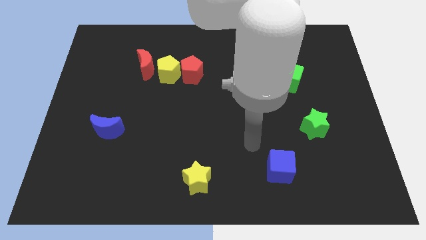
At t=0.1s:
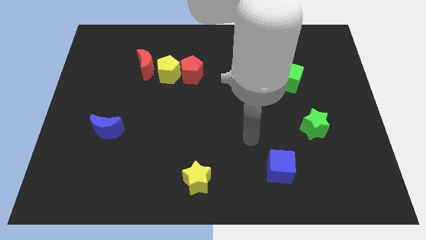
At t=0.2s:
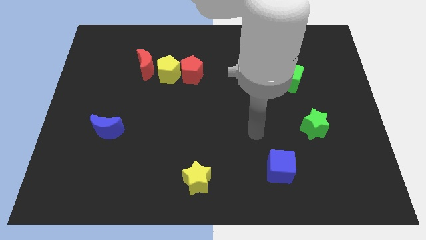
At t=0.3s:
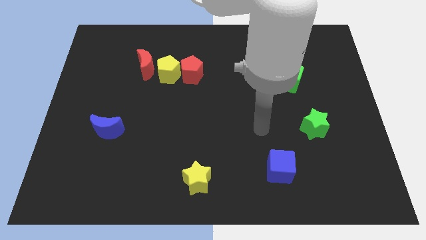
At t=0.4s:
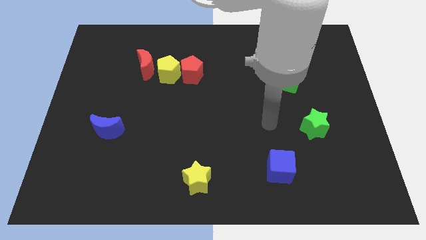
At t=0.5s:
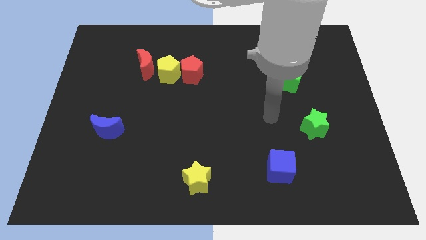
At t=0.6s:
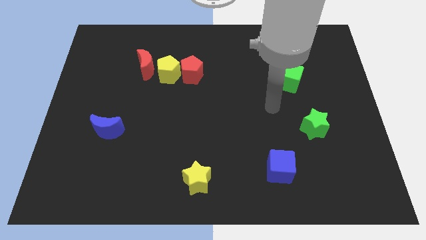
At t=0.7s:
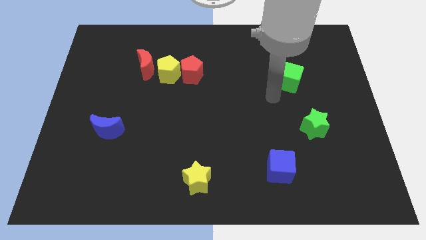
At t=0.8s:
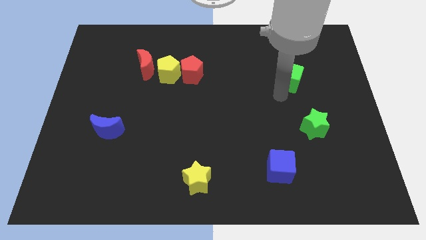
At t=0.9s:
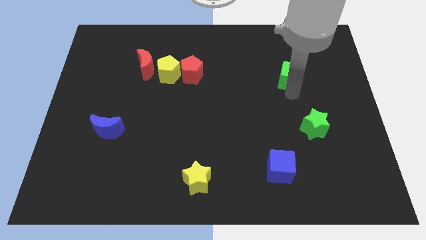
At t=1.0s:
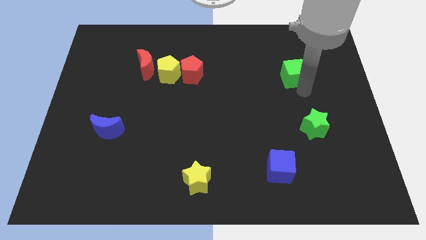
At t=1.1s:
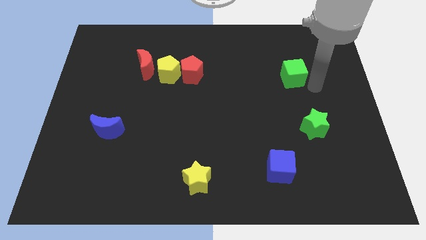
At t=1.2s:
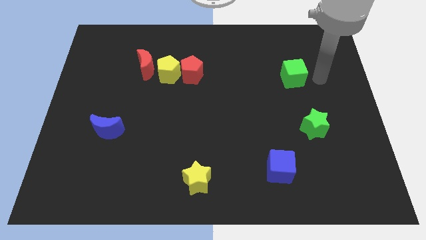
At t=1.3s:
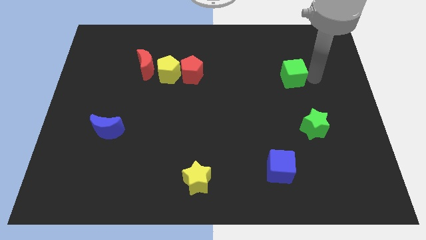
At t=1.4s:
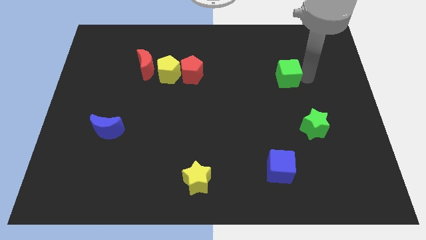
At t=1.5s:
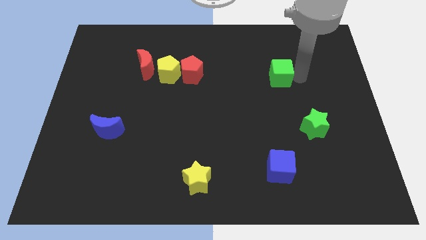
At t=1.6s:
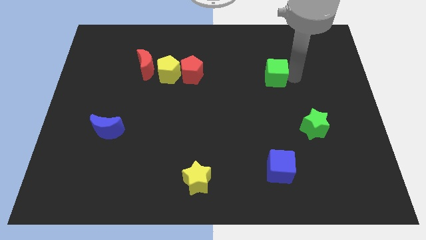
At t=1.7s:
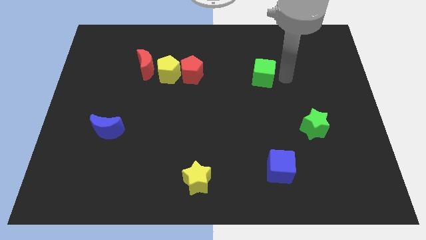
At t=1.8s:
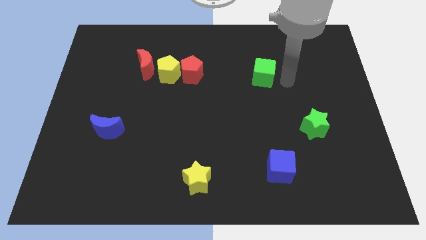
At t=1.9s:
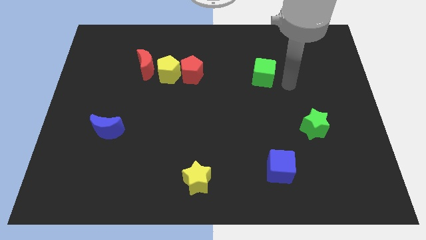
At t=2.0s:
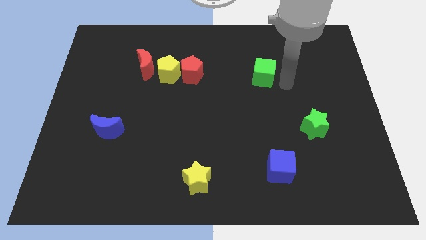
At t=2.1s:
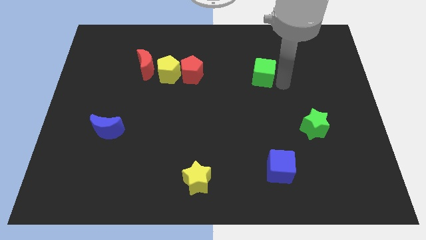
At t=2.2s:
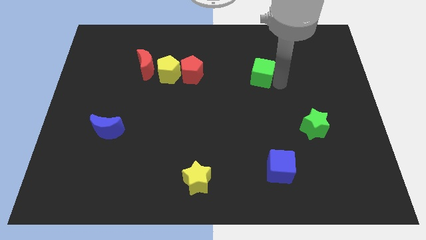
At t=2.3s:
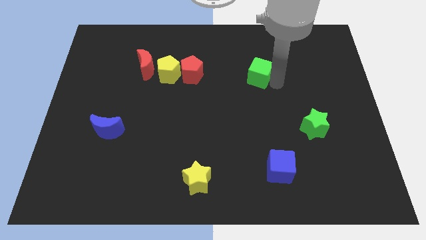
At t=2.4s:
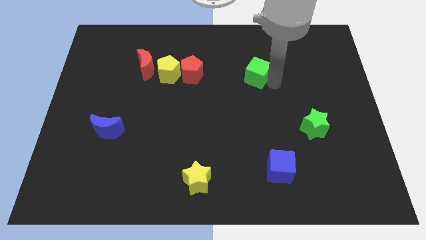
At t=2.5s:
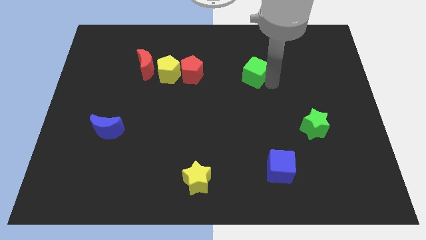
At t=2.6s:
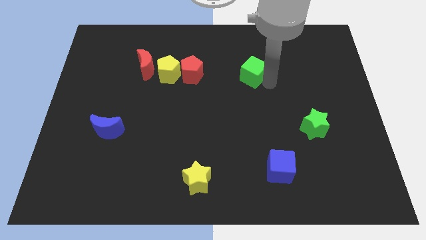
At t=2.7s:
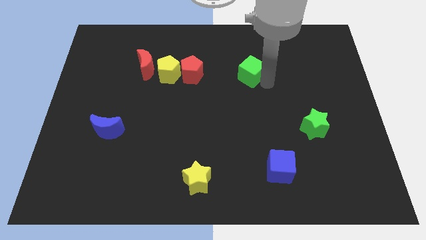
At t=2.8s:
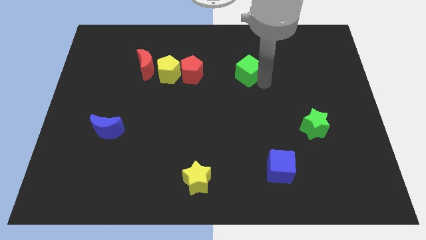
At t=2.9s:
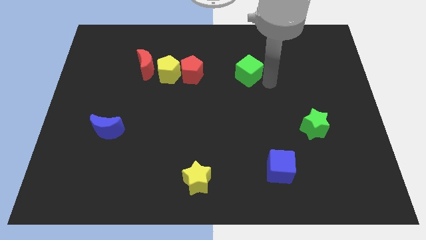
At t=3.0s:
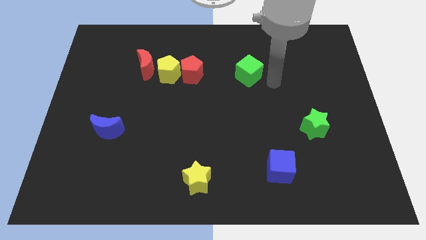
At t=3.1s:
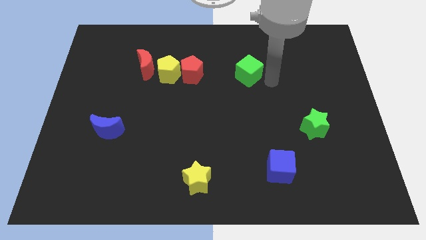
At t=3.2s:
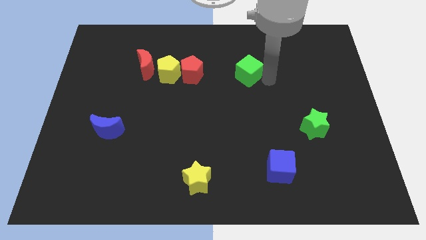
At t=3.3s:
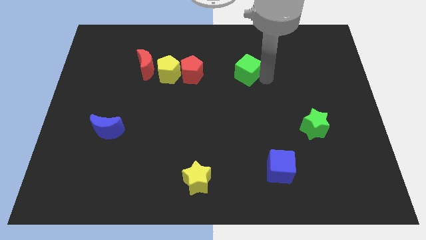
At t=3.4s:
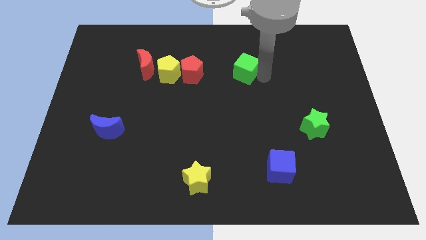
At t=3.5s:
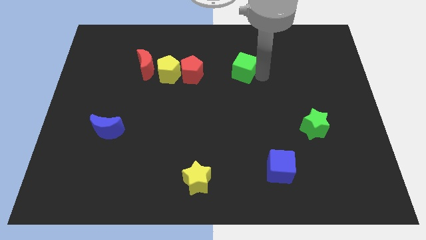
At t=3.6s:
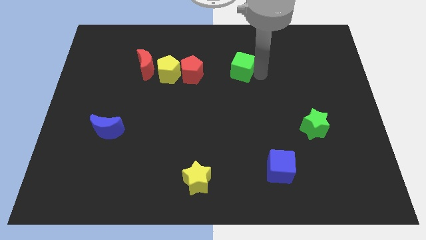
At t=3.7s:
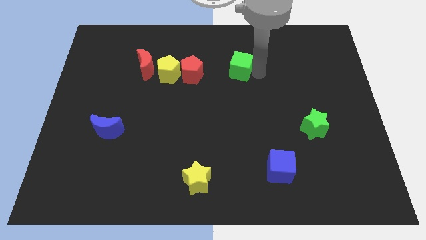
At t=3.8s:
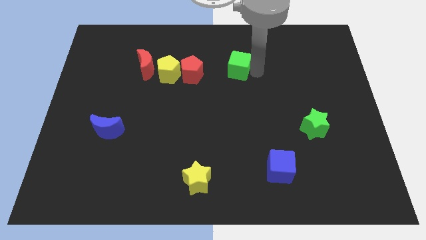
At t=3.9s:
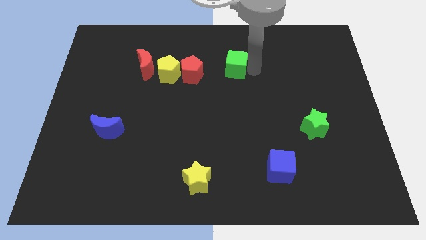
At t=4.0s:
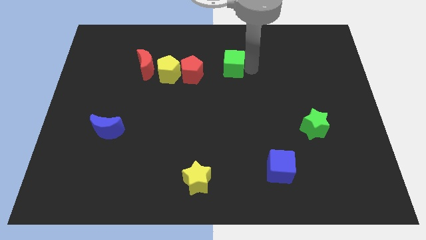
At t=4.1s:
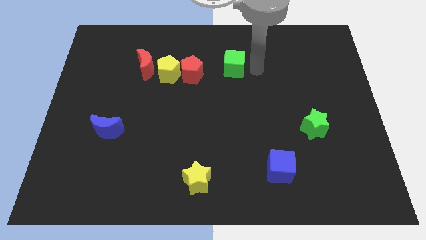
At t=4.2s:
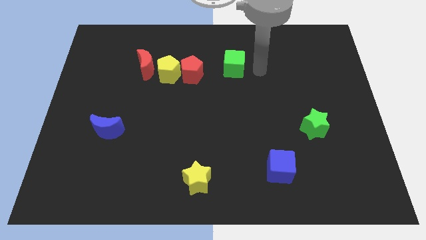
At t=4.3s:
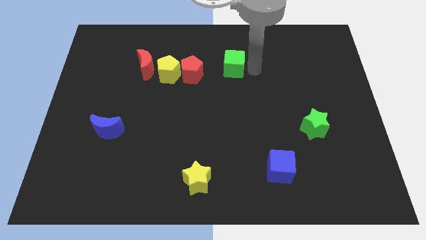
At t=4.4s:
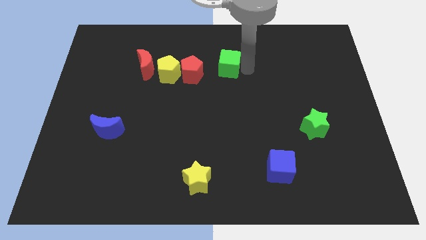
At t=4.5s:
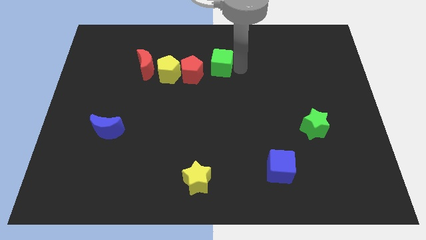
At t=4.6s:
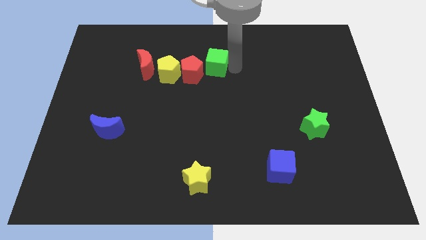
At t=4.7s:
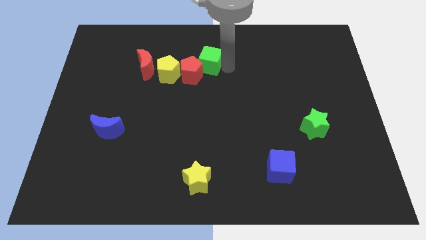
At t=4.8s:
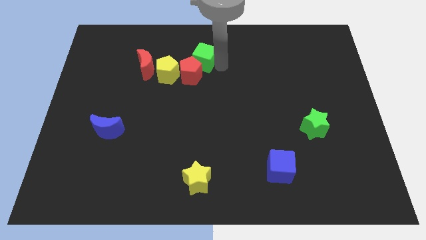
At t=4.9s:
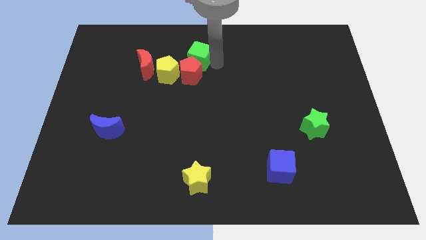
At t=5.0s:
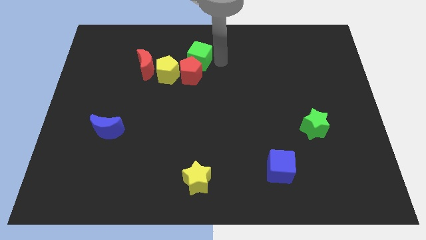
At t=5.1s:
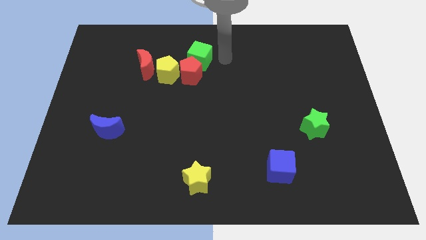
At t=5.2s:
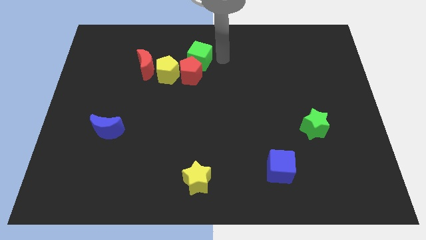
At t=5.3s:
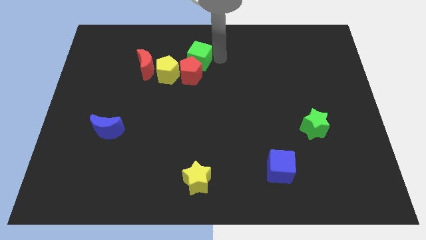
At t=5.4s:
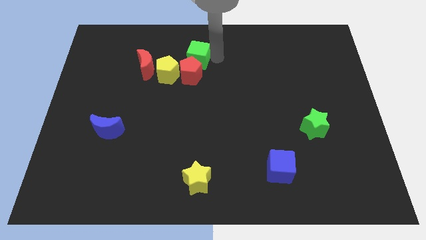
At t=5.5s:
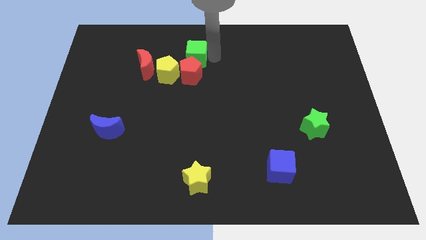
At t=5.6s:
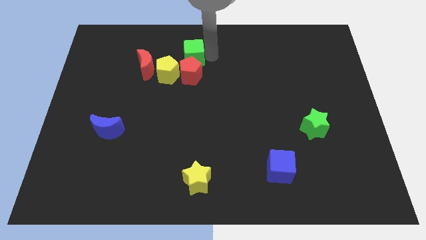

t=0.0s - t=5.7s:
slide the green cube to the top left side of the red pentagon

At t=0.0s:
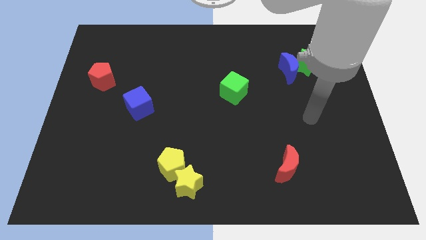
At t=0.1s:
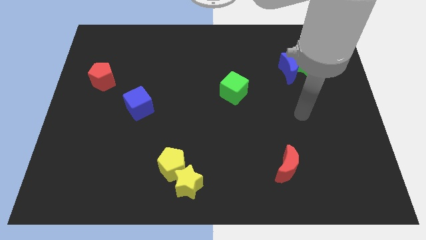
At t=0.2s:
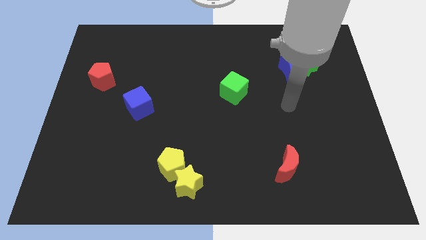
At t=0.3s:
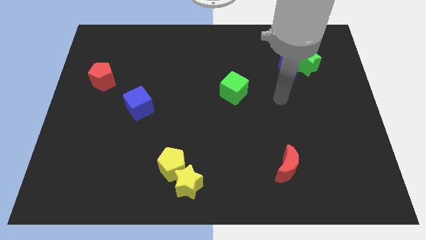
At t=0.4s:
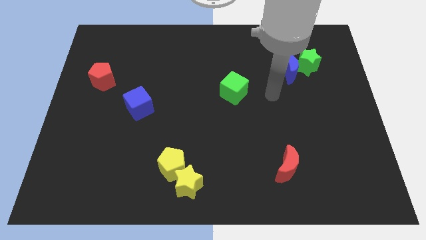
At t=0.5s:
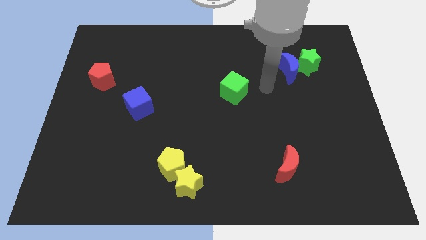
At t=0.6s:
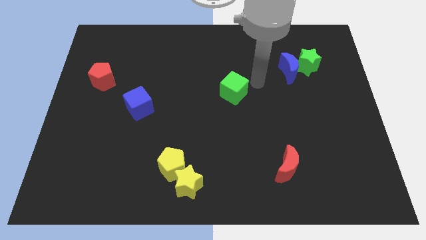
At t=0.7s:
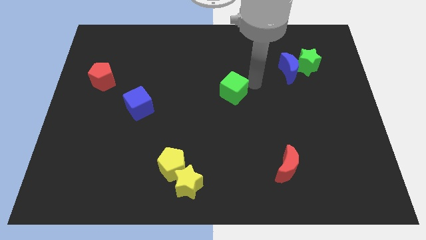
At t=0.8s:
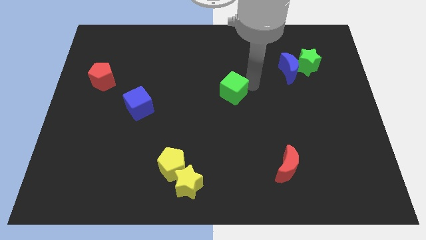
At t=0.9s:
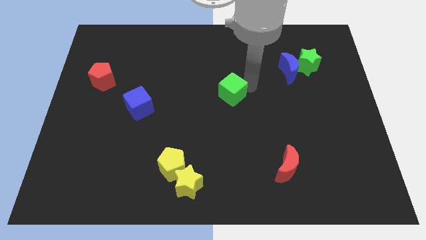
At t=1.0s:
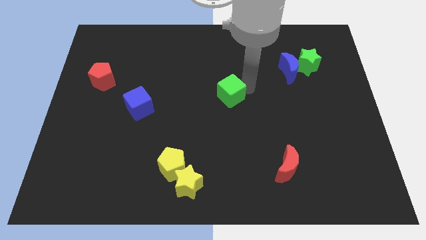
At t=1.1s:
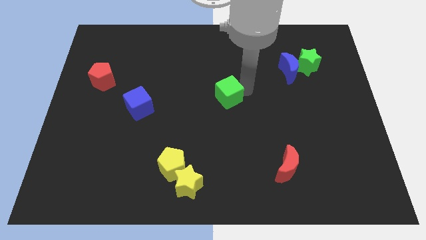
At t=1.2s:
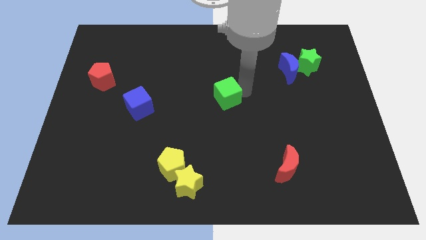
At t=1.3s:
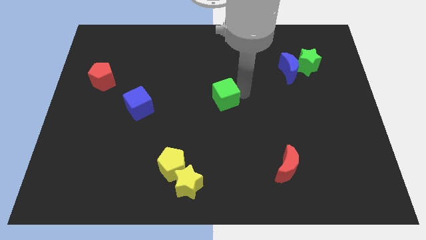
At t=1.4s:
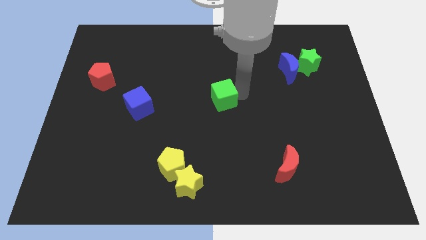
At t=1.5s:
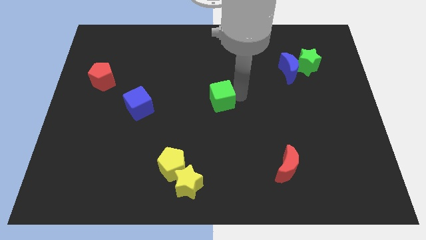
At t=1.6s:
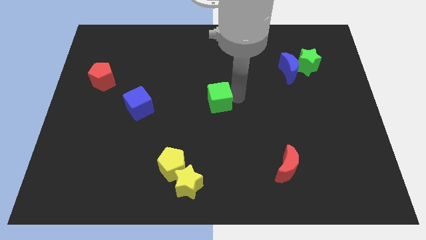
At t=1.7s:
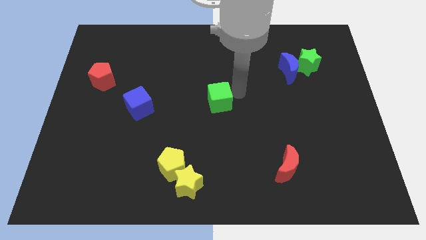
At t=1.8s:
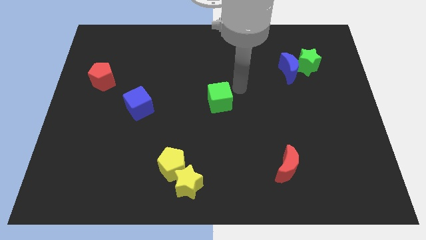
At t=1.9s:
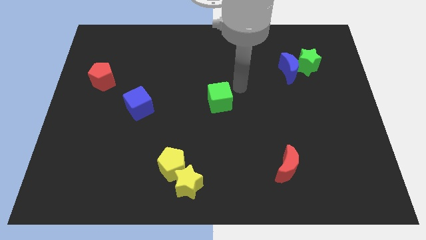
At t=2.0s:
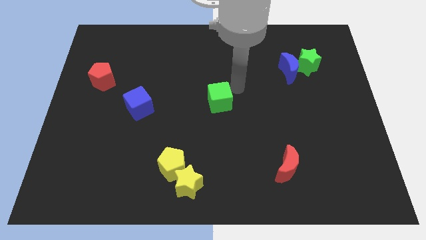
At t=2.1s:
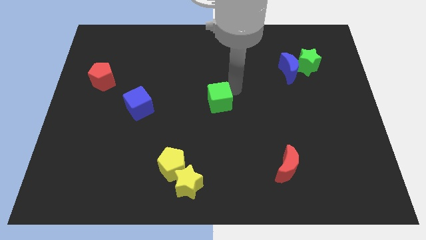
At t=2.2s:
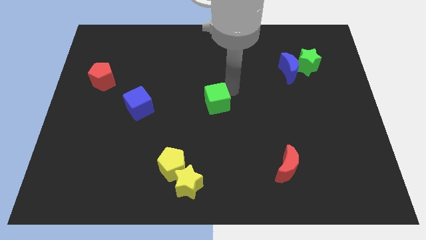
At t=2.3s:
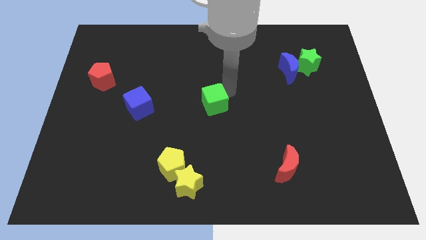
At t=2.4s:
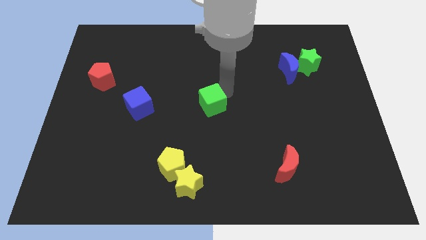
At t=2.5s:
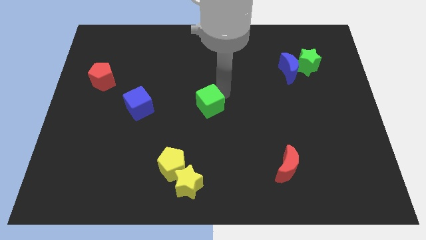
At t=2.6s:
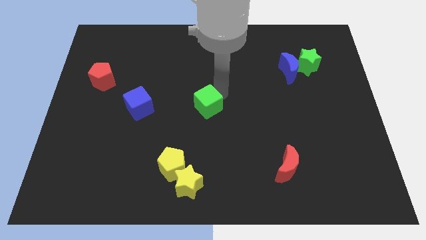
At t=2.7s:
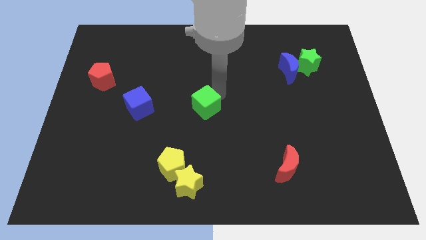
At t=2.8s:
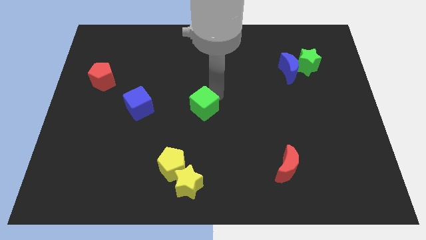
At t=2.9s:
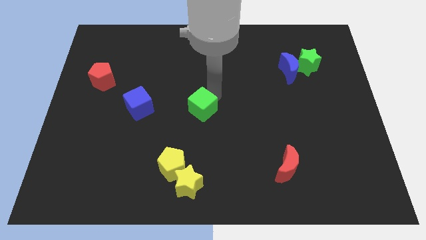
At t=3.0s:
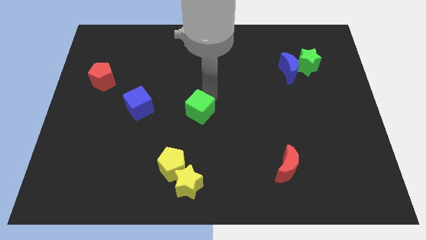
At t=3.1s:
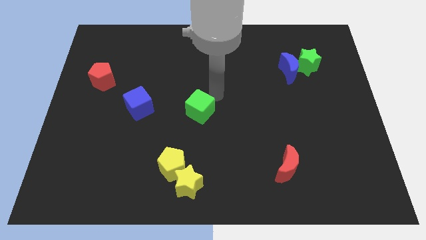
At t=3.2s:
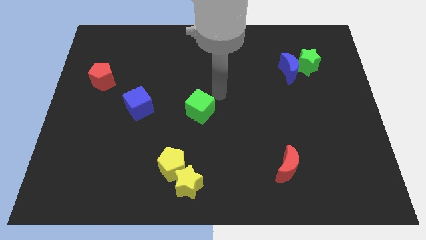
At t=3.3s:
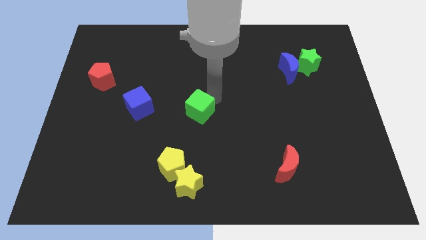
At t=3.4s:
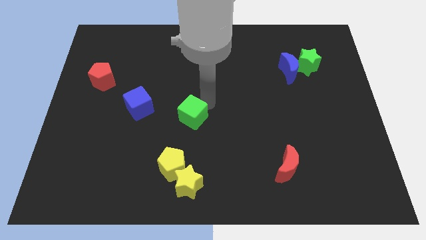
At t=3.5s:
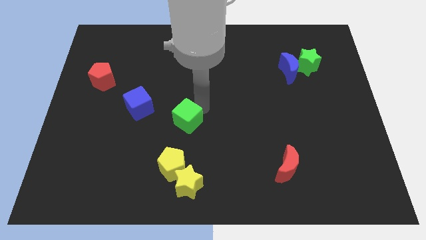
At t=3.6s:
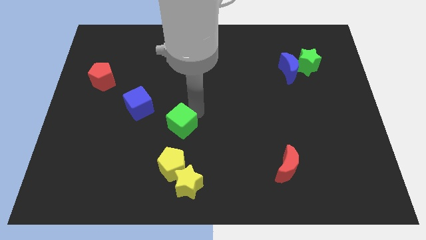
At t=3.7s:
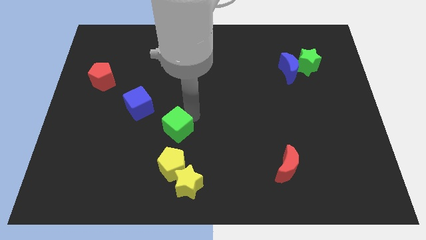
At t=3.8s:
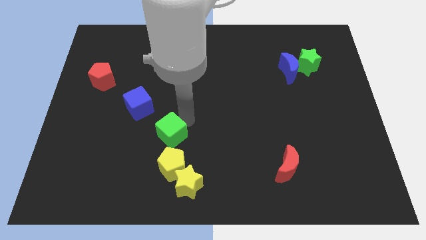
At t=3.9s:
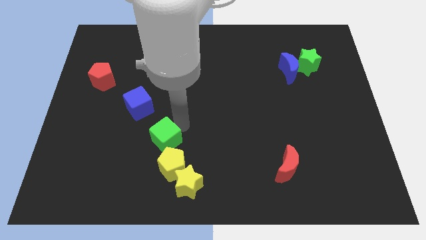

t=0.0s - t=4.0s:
slide the green cube to the top left of the yellow pentagon
